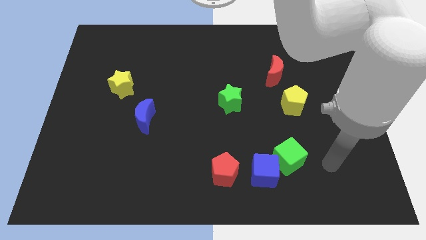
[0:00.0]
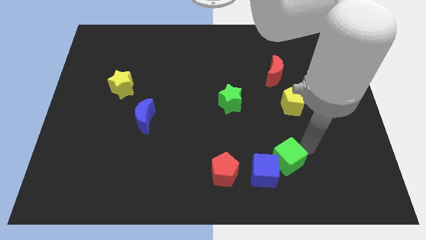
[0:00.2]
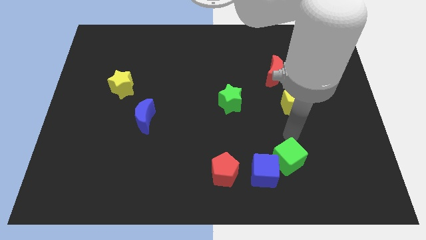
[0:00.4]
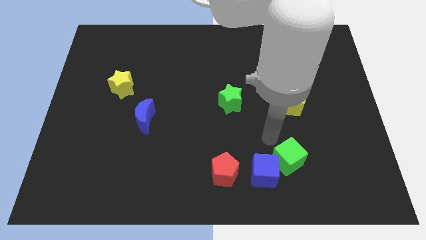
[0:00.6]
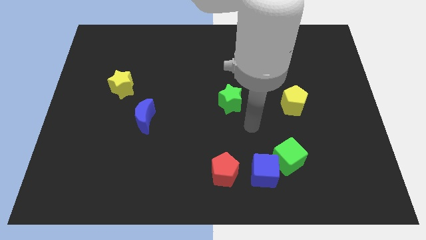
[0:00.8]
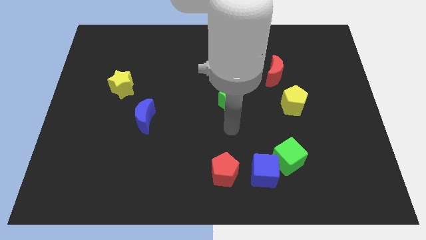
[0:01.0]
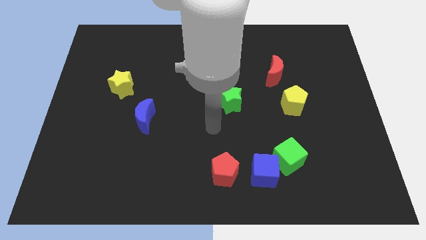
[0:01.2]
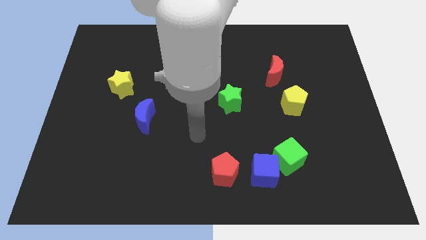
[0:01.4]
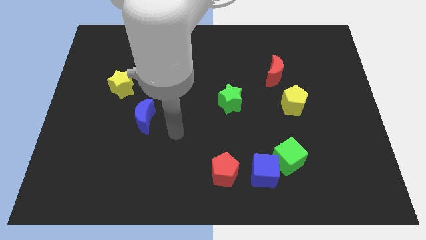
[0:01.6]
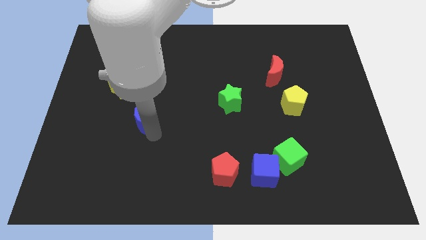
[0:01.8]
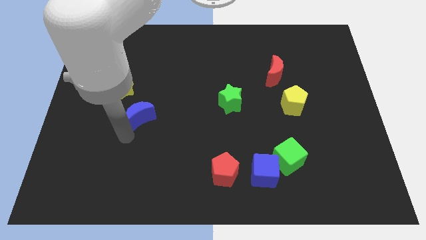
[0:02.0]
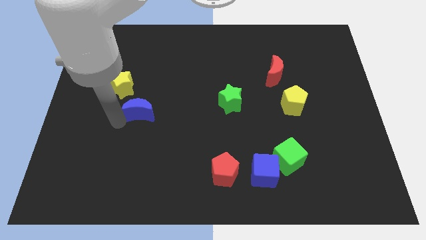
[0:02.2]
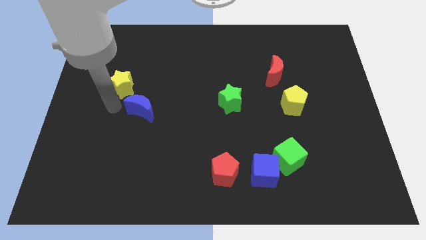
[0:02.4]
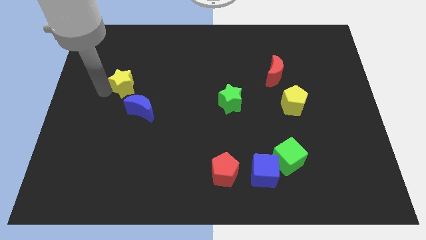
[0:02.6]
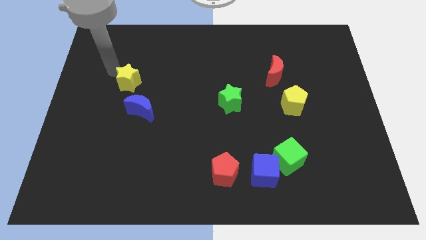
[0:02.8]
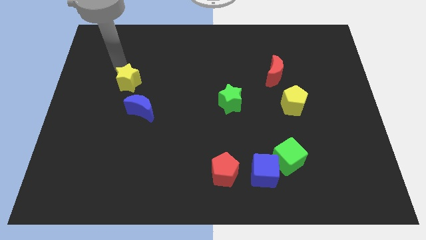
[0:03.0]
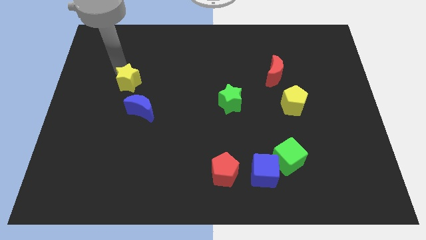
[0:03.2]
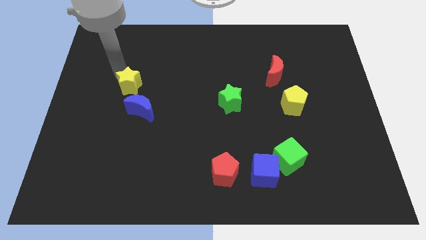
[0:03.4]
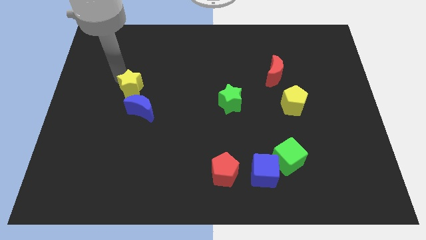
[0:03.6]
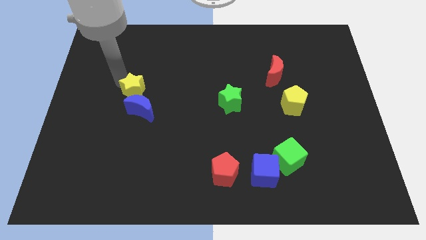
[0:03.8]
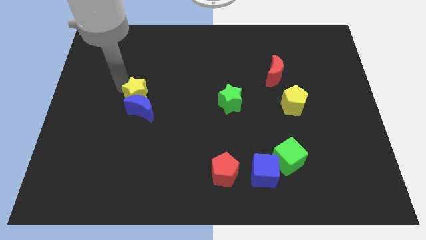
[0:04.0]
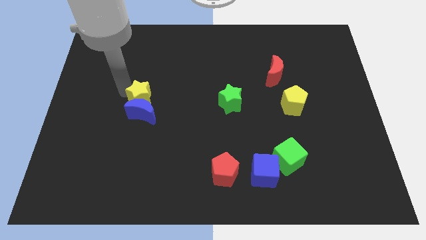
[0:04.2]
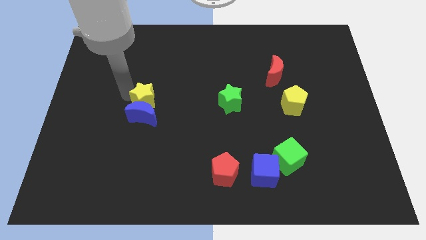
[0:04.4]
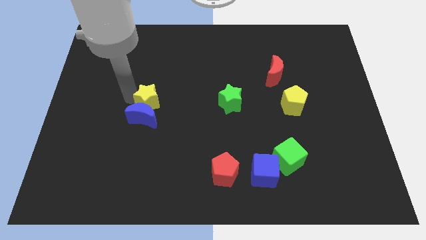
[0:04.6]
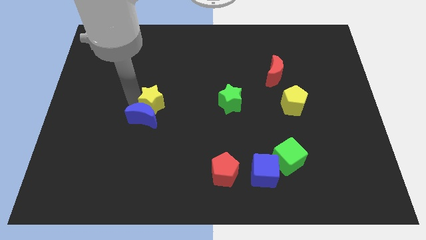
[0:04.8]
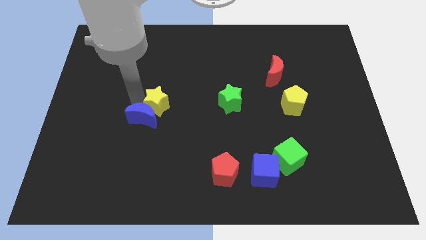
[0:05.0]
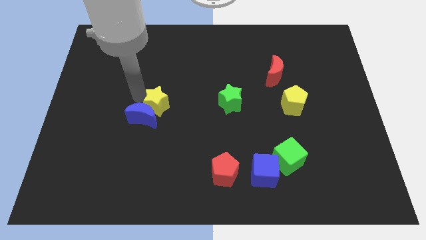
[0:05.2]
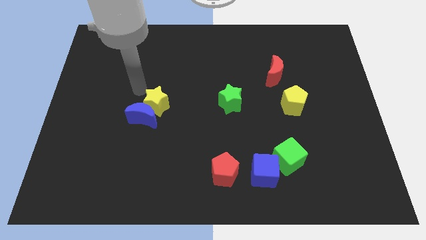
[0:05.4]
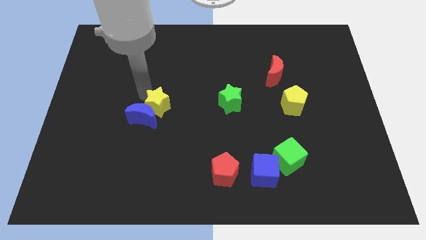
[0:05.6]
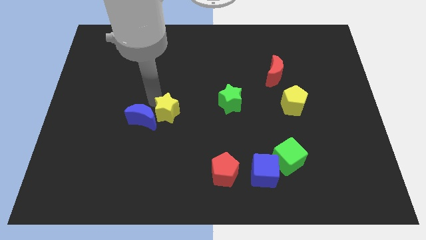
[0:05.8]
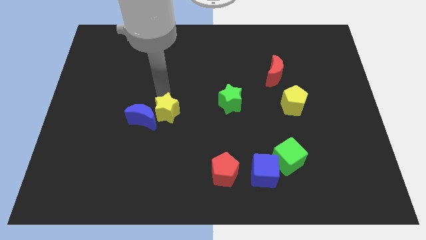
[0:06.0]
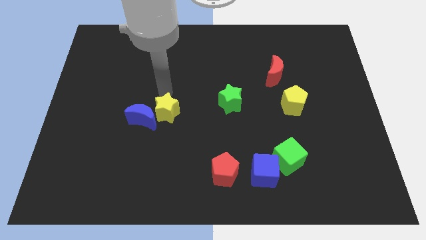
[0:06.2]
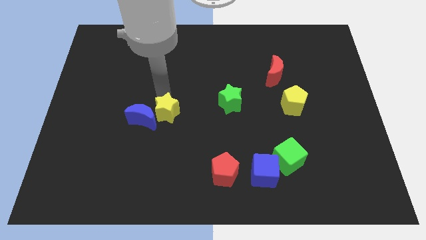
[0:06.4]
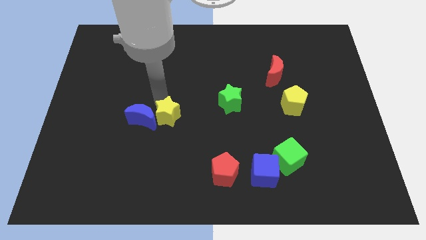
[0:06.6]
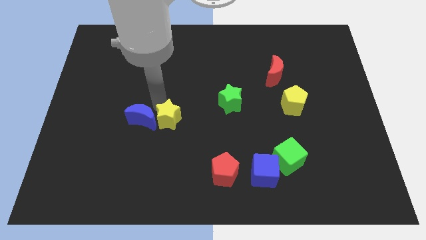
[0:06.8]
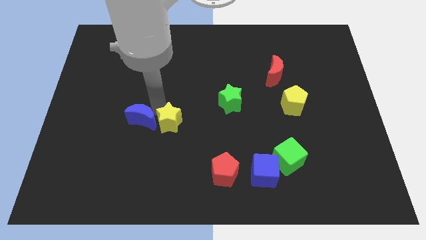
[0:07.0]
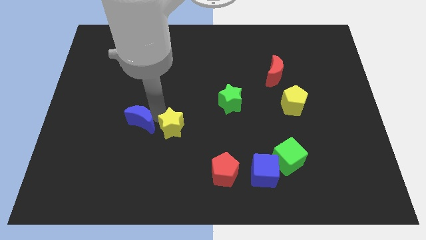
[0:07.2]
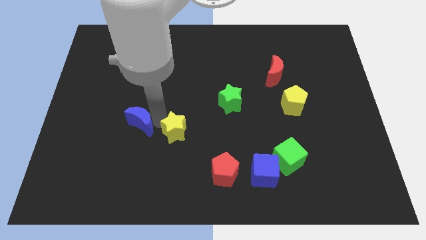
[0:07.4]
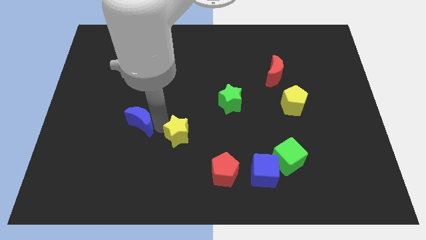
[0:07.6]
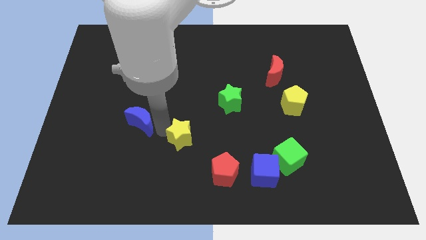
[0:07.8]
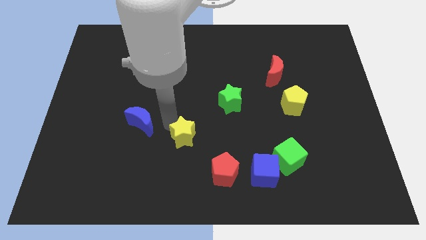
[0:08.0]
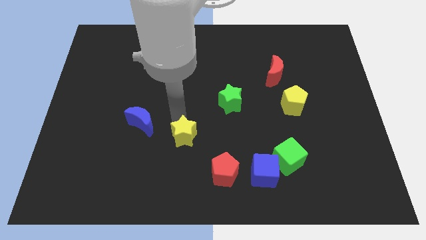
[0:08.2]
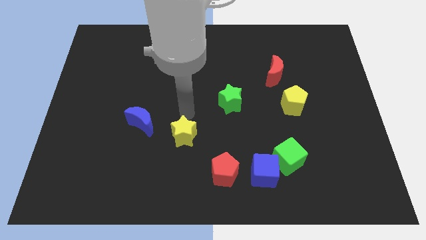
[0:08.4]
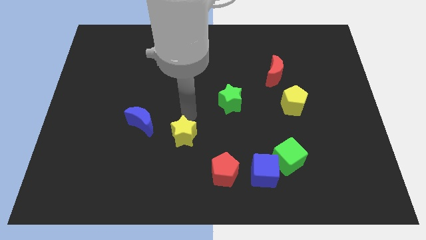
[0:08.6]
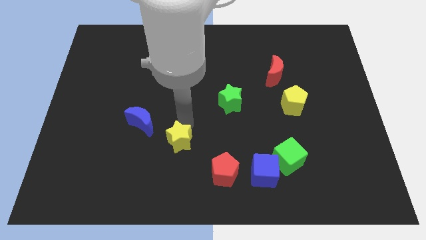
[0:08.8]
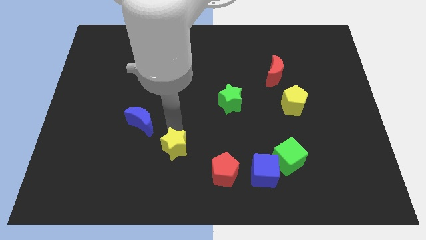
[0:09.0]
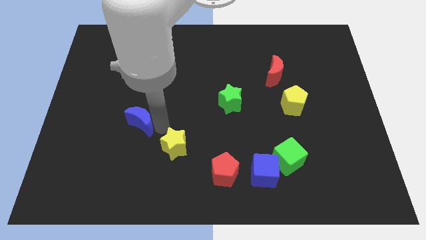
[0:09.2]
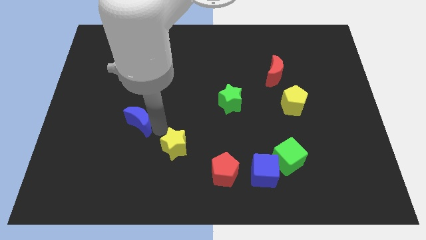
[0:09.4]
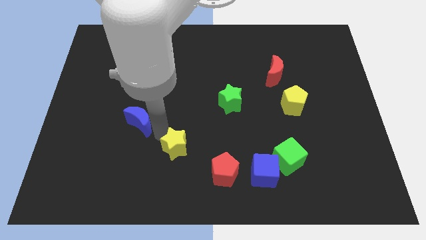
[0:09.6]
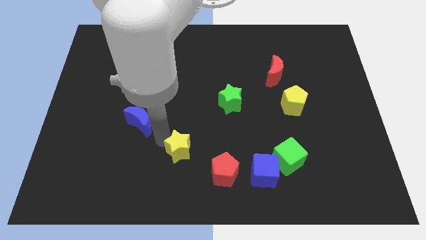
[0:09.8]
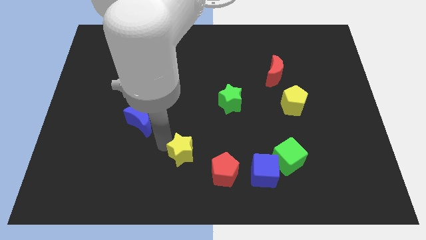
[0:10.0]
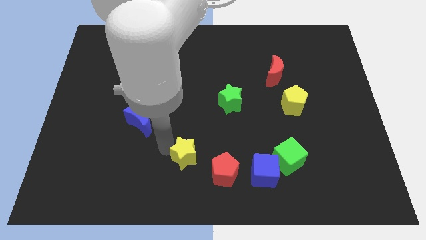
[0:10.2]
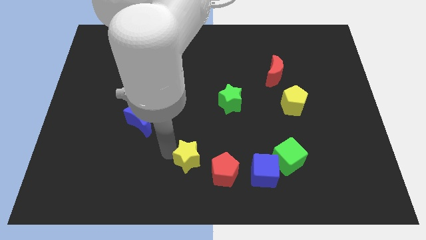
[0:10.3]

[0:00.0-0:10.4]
move the yellow star to the bottom side
